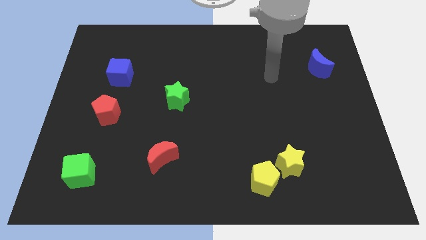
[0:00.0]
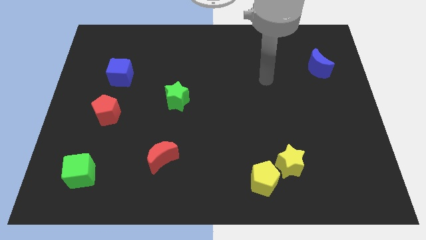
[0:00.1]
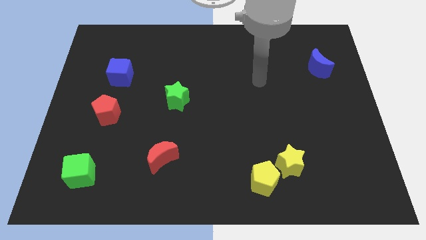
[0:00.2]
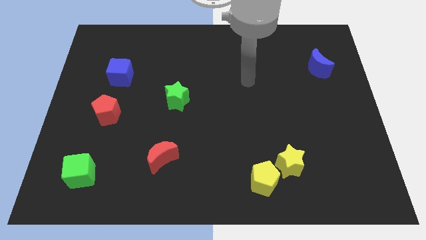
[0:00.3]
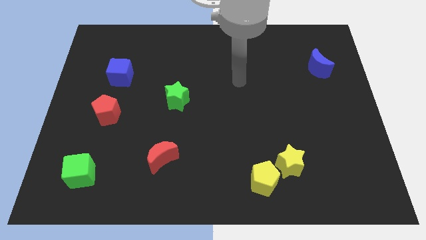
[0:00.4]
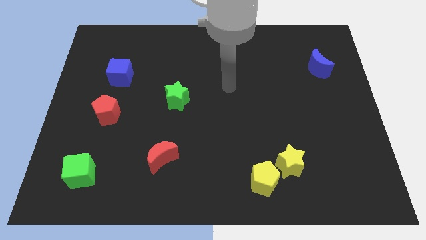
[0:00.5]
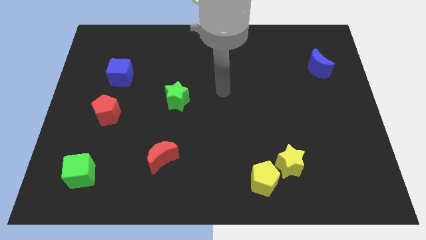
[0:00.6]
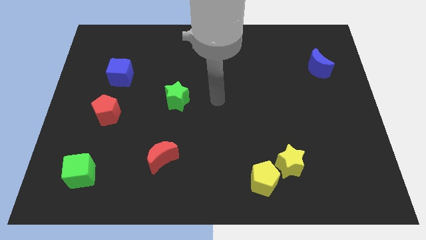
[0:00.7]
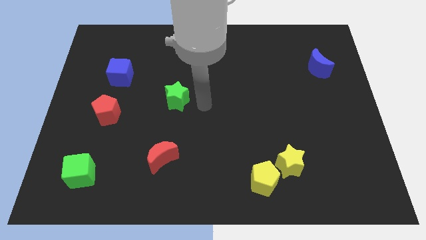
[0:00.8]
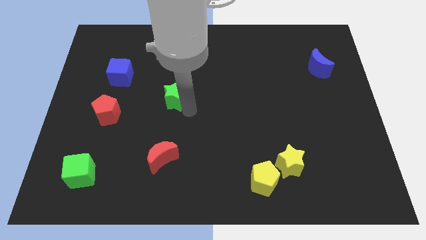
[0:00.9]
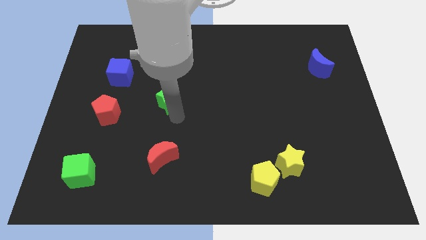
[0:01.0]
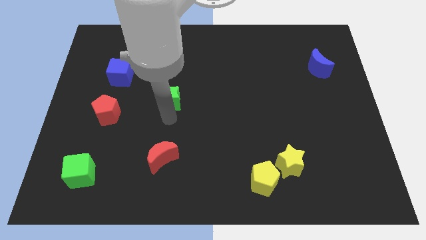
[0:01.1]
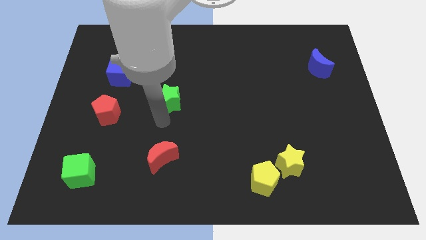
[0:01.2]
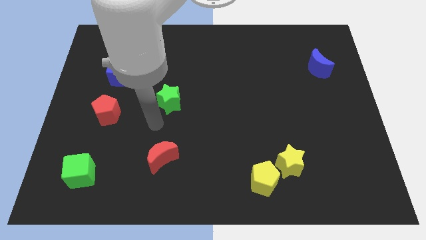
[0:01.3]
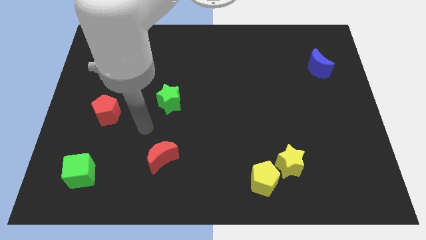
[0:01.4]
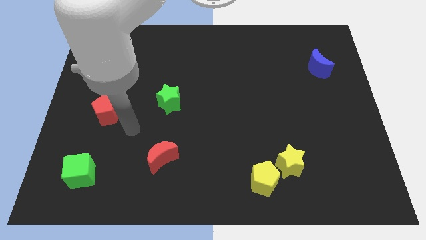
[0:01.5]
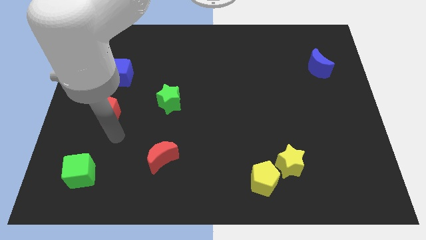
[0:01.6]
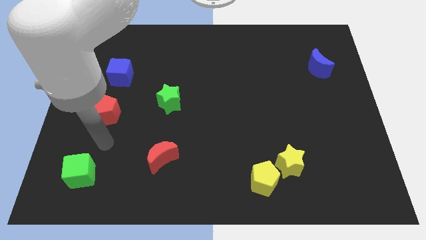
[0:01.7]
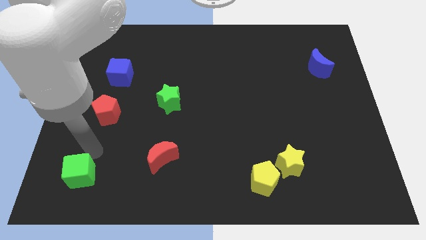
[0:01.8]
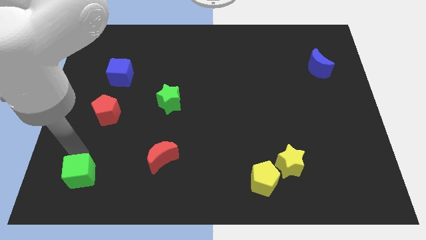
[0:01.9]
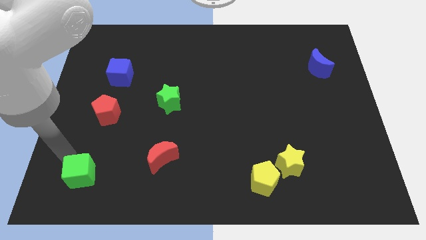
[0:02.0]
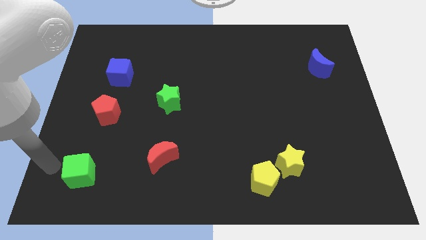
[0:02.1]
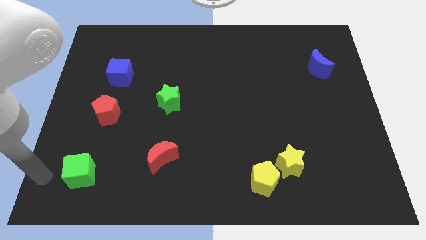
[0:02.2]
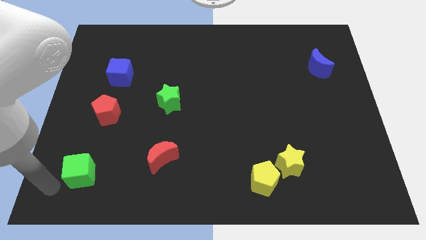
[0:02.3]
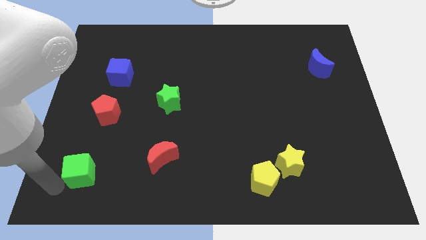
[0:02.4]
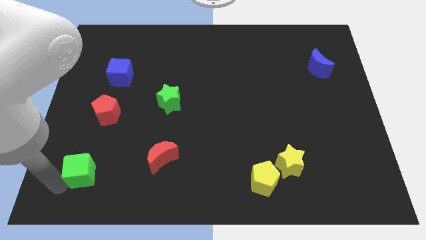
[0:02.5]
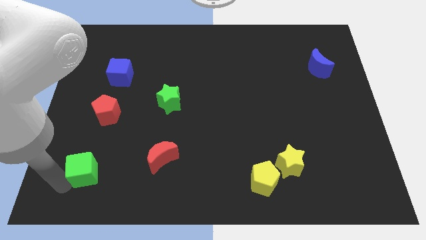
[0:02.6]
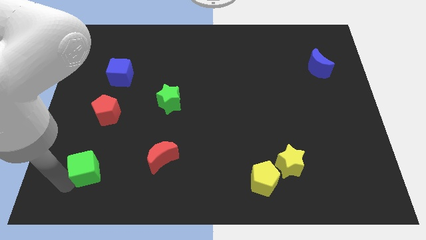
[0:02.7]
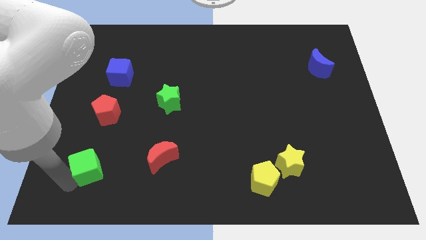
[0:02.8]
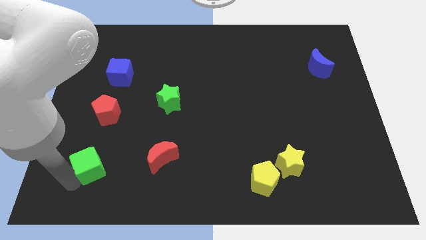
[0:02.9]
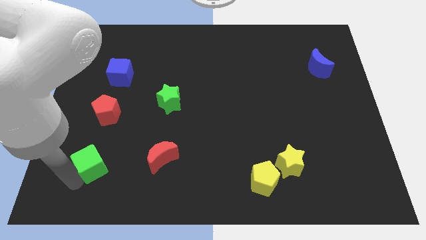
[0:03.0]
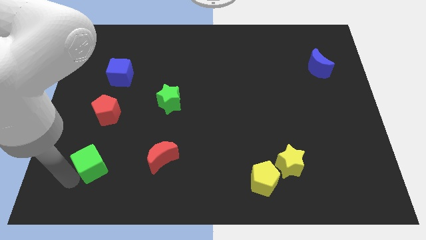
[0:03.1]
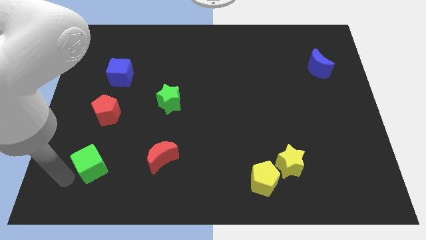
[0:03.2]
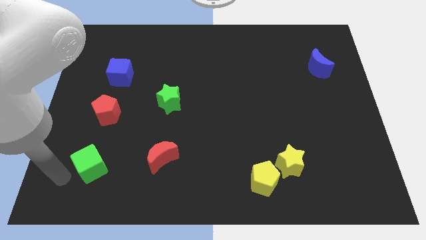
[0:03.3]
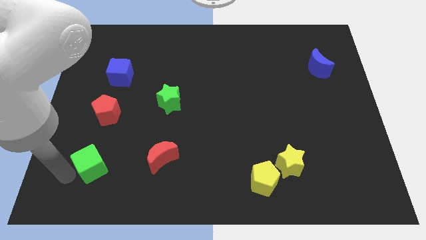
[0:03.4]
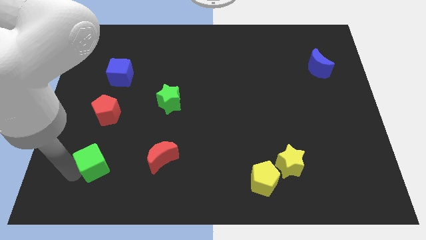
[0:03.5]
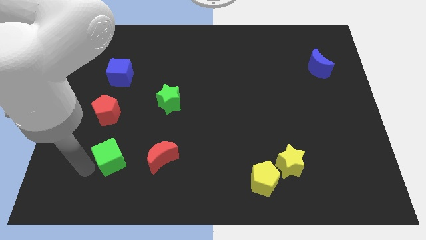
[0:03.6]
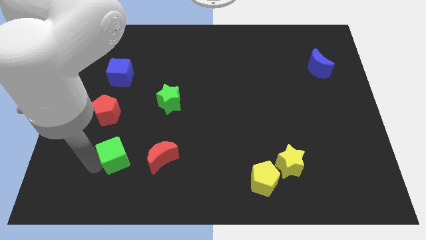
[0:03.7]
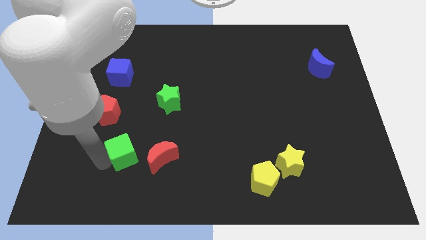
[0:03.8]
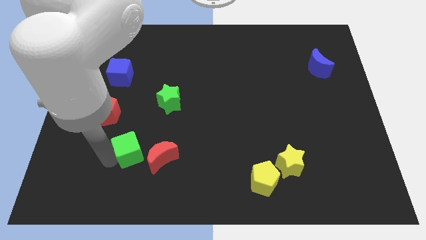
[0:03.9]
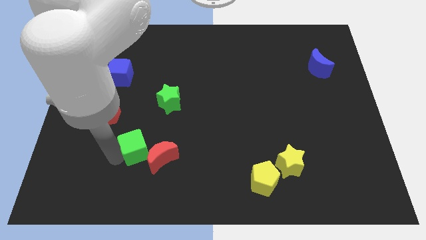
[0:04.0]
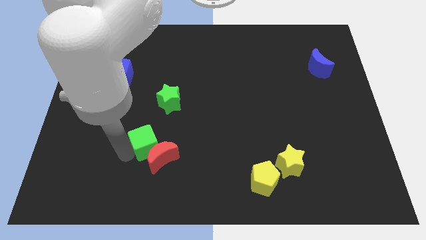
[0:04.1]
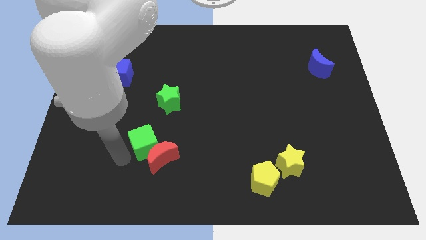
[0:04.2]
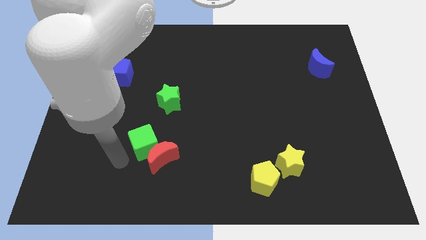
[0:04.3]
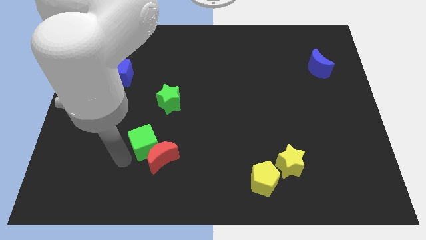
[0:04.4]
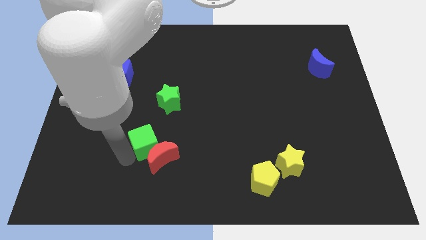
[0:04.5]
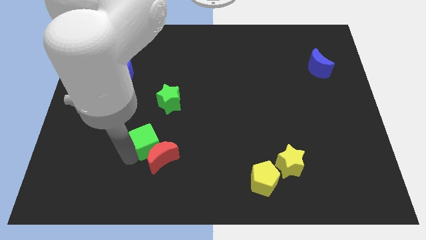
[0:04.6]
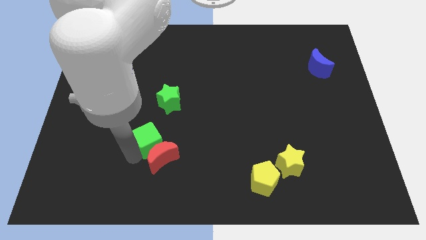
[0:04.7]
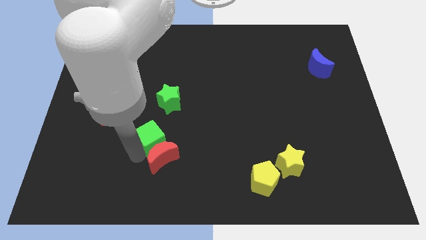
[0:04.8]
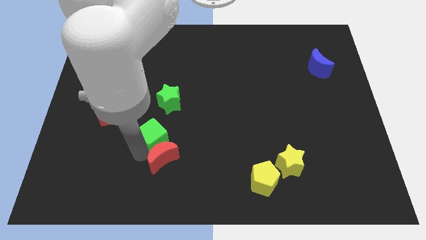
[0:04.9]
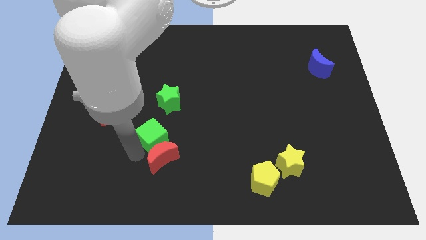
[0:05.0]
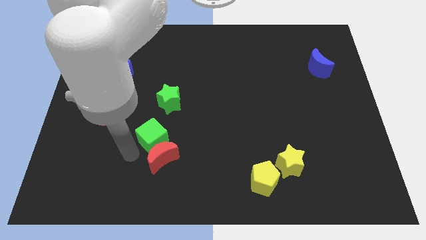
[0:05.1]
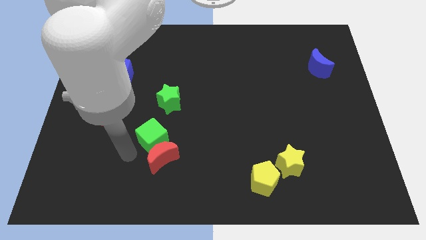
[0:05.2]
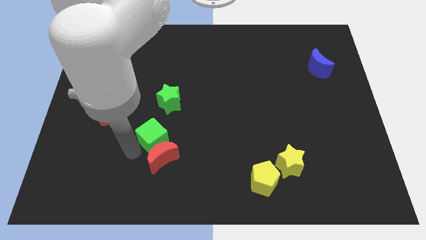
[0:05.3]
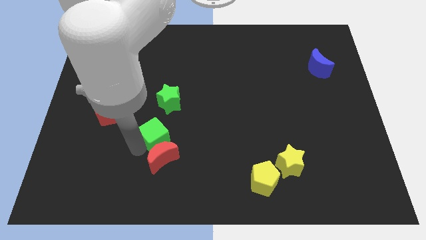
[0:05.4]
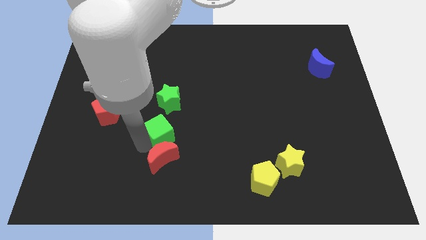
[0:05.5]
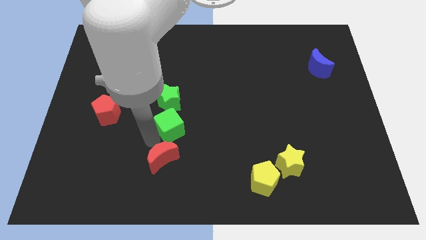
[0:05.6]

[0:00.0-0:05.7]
push the green cube diagonally down and to the right of the green star

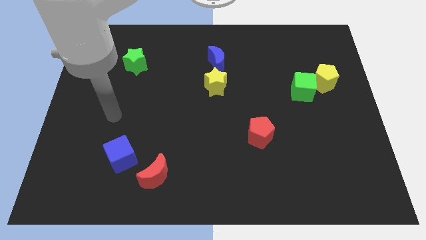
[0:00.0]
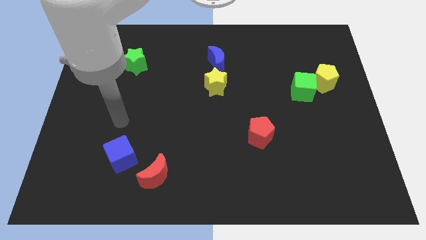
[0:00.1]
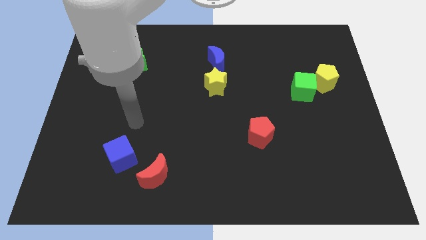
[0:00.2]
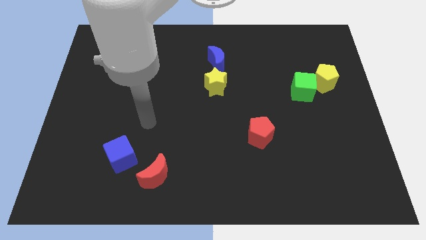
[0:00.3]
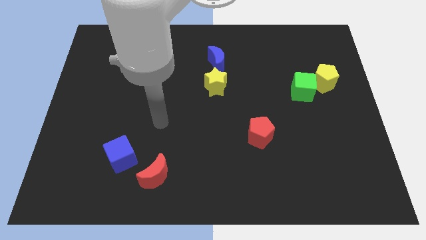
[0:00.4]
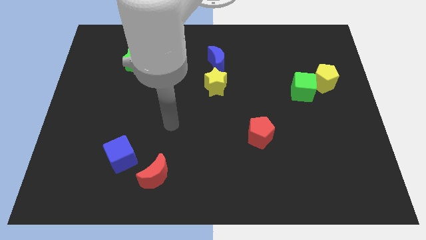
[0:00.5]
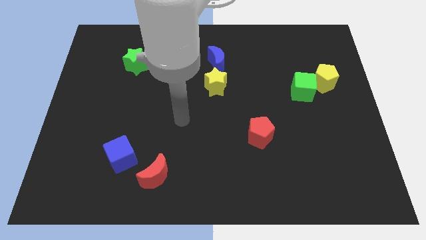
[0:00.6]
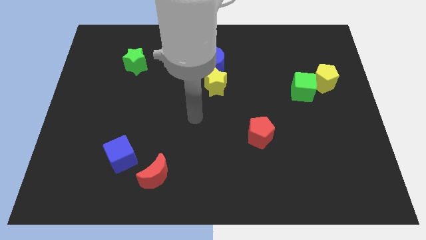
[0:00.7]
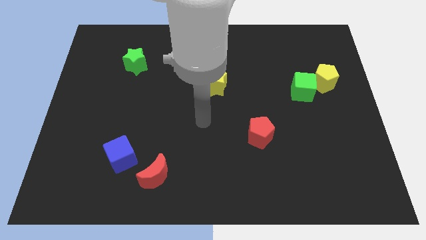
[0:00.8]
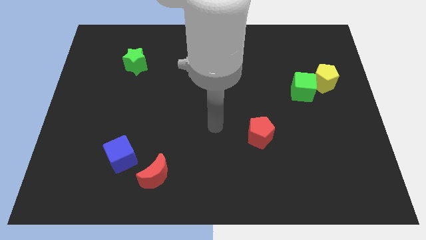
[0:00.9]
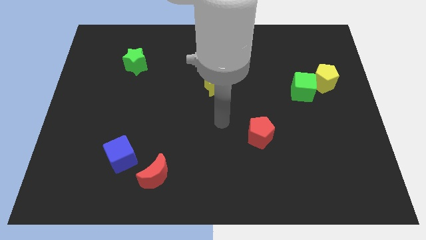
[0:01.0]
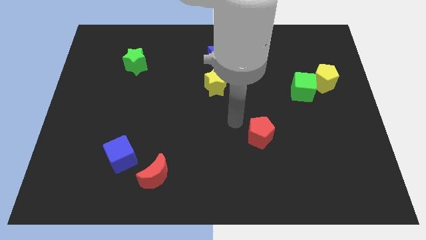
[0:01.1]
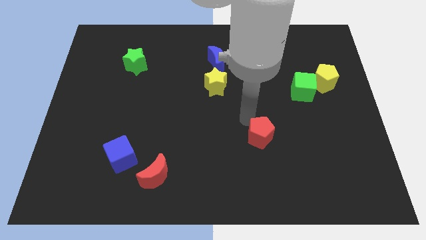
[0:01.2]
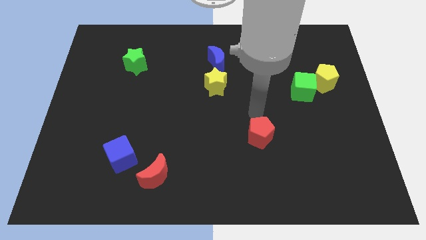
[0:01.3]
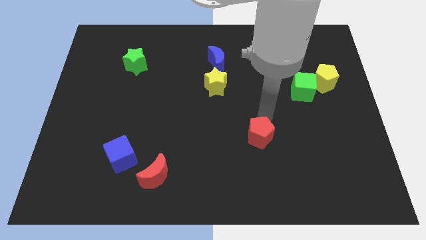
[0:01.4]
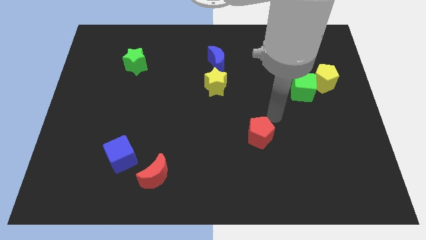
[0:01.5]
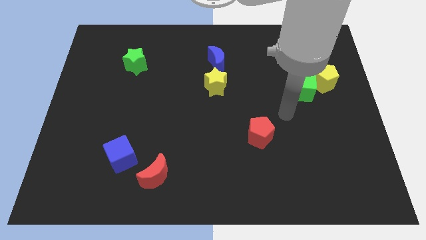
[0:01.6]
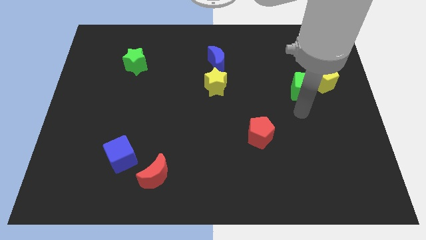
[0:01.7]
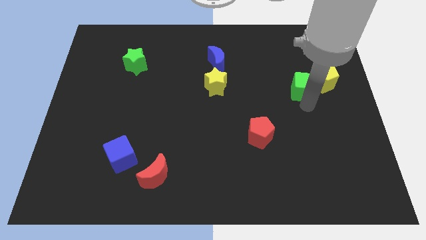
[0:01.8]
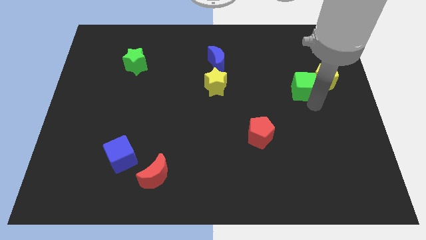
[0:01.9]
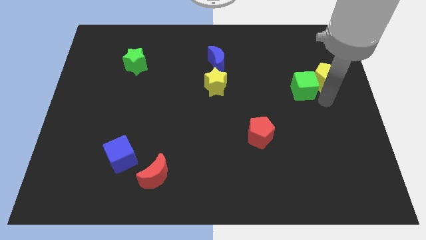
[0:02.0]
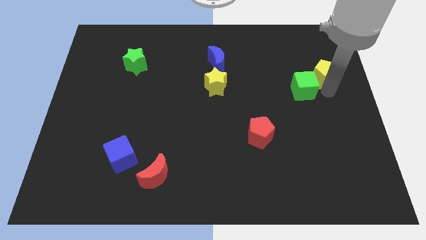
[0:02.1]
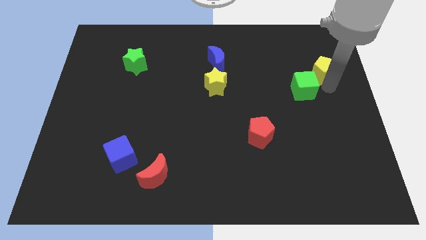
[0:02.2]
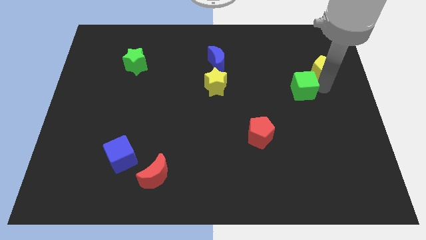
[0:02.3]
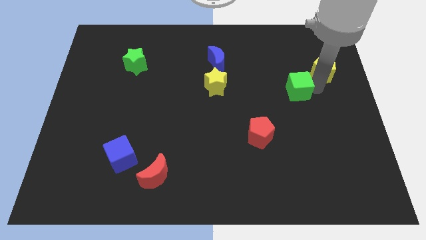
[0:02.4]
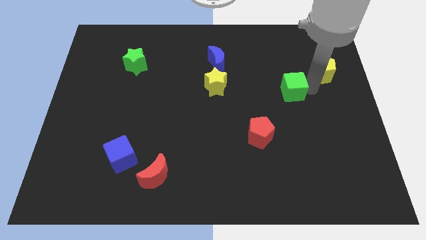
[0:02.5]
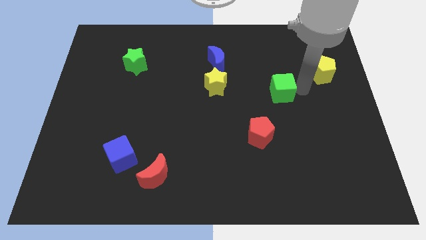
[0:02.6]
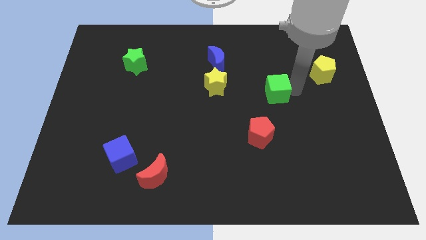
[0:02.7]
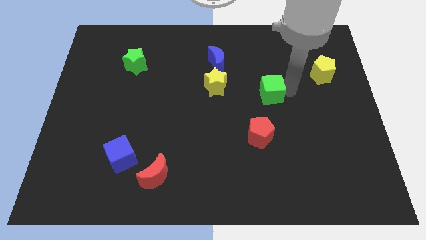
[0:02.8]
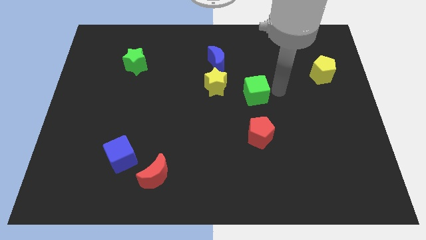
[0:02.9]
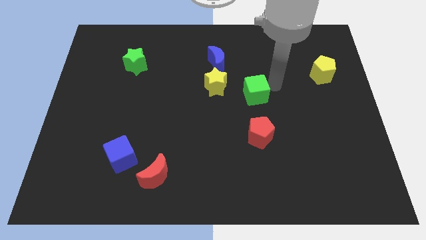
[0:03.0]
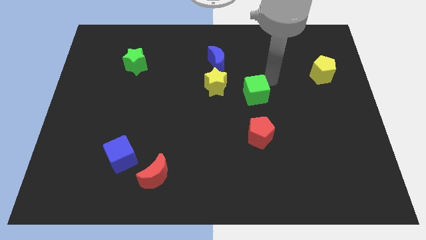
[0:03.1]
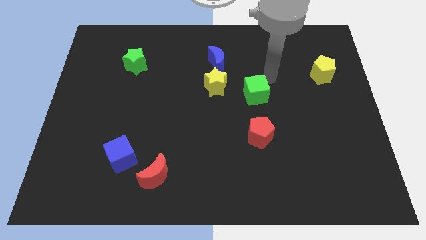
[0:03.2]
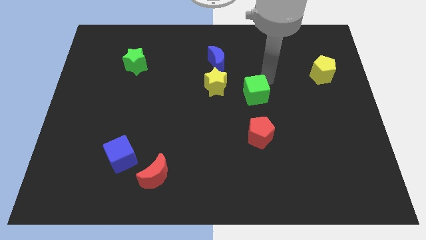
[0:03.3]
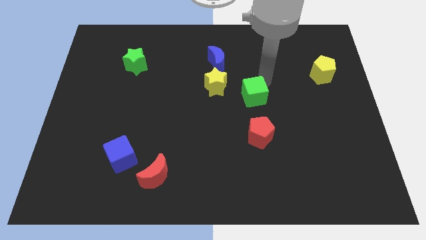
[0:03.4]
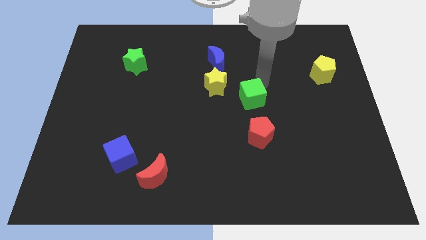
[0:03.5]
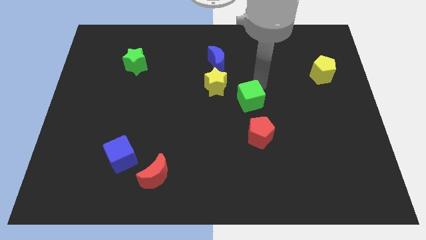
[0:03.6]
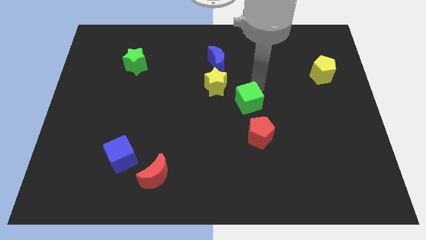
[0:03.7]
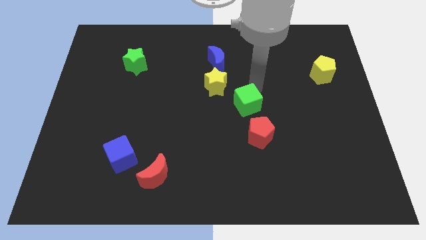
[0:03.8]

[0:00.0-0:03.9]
put the green cube to the top left of the red pentagon
